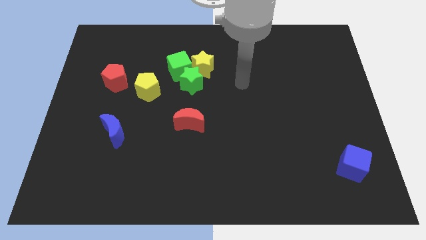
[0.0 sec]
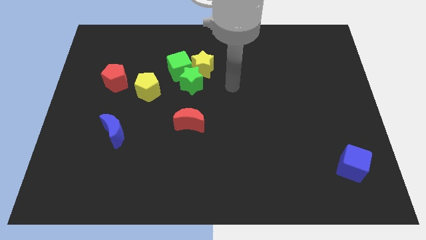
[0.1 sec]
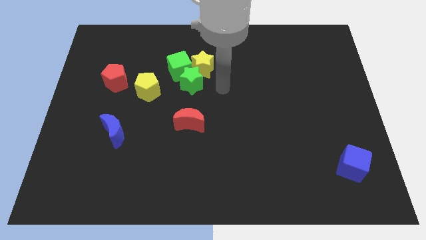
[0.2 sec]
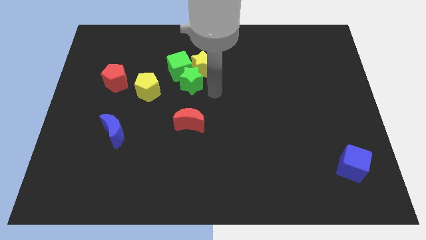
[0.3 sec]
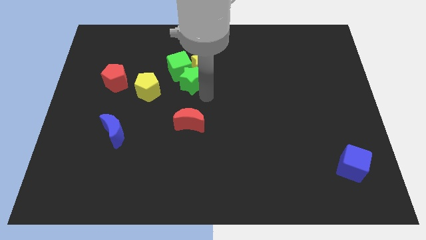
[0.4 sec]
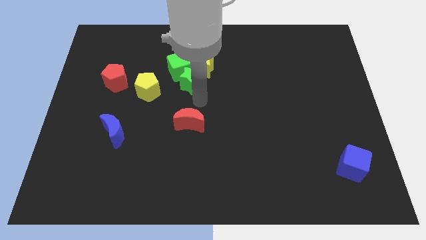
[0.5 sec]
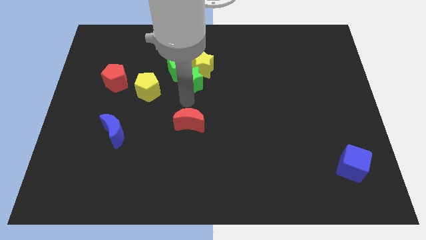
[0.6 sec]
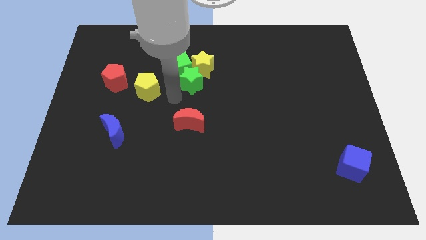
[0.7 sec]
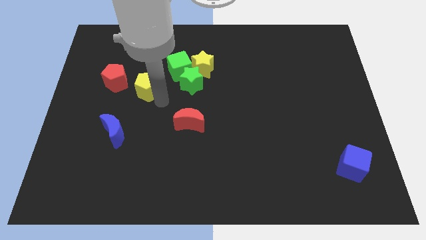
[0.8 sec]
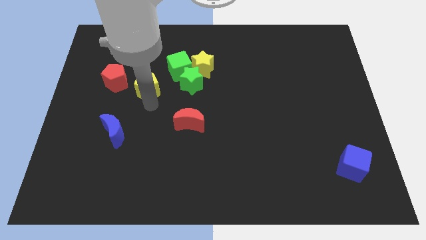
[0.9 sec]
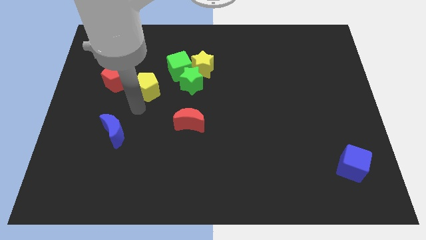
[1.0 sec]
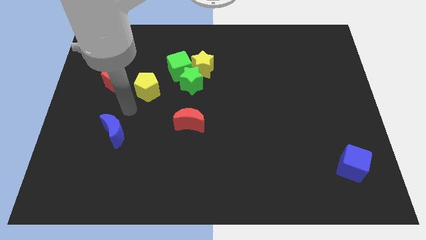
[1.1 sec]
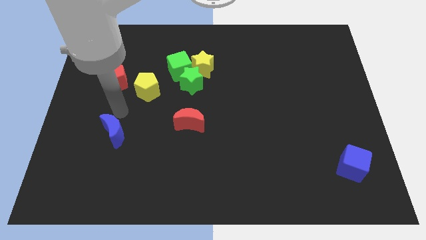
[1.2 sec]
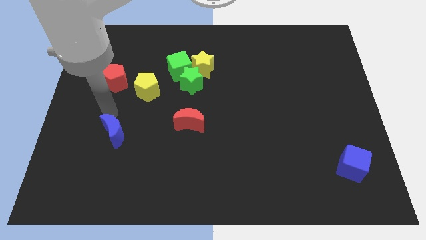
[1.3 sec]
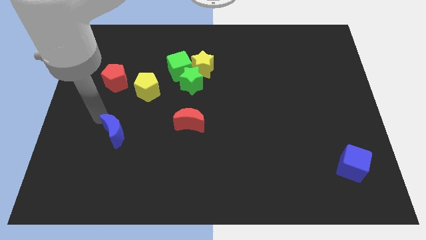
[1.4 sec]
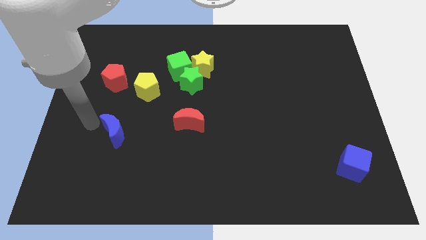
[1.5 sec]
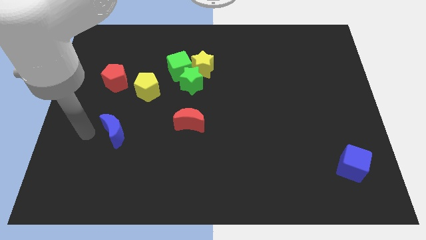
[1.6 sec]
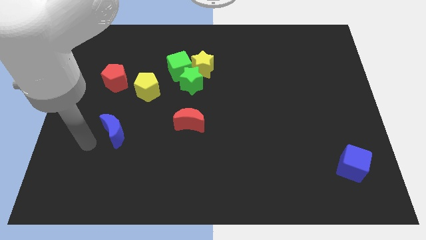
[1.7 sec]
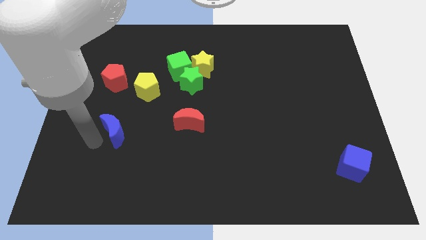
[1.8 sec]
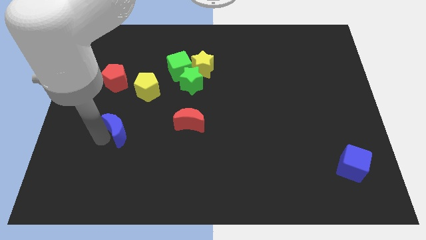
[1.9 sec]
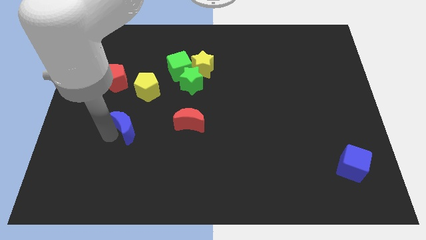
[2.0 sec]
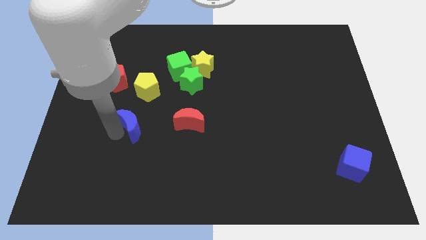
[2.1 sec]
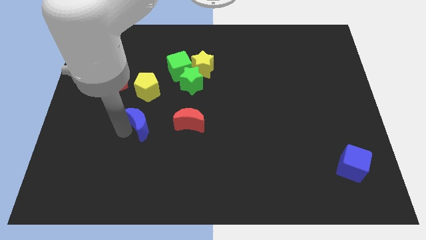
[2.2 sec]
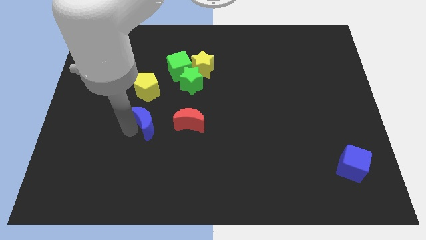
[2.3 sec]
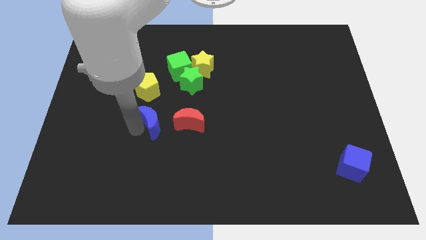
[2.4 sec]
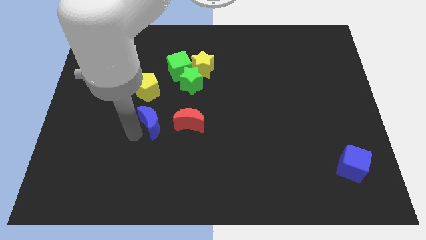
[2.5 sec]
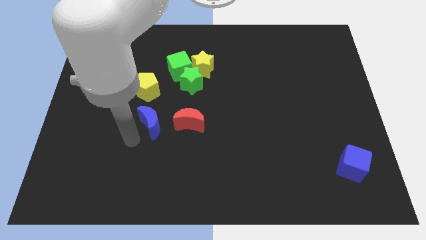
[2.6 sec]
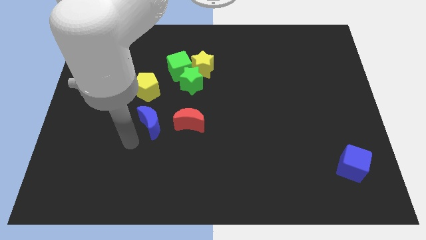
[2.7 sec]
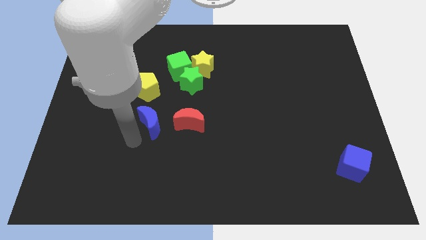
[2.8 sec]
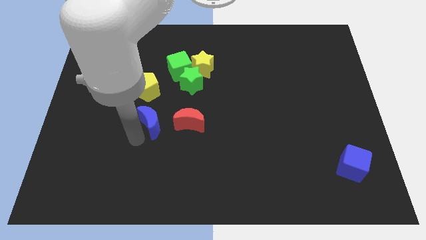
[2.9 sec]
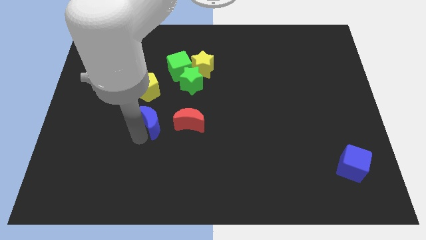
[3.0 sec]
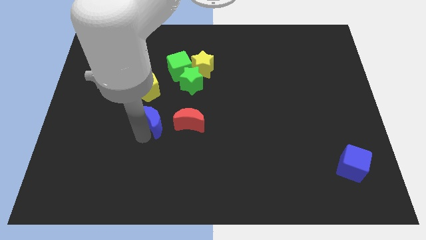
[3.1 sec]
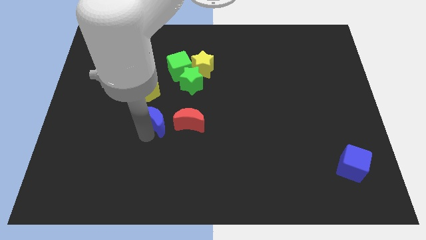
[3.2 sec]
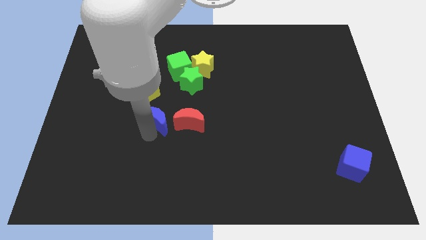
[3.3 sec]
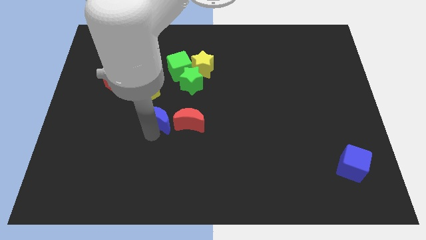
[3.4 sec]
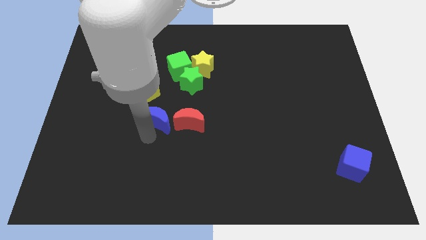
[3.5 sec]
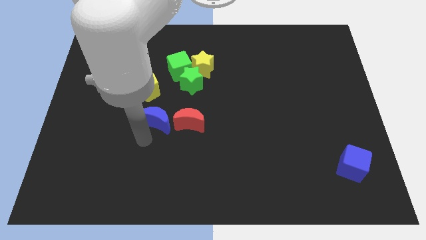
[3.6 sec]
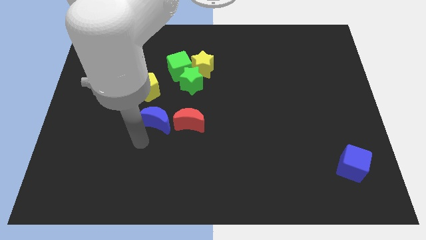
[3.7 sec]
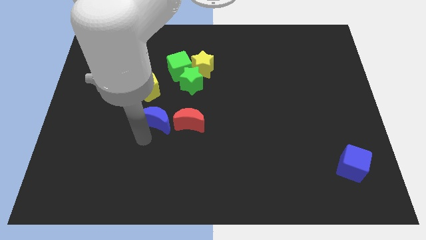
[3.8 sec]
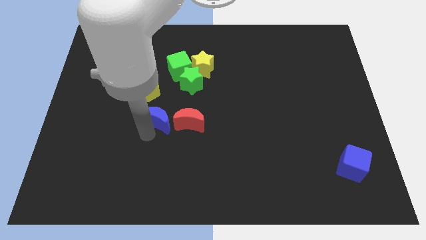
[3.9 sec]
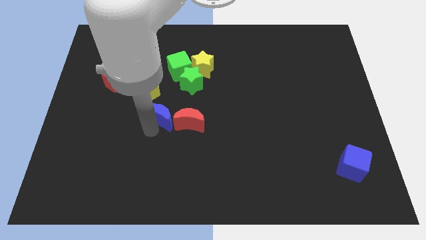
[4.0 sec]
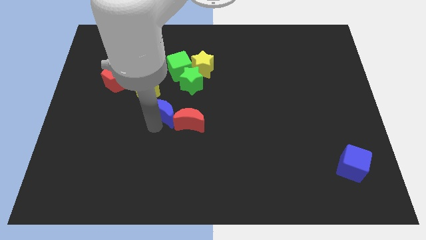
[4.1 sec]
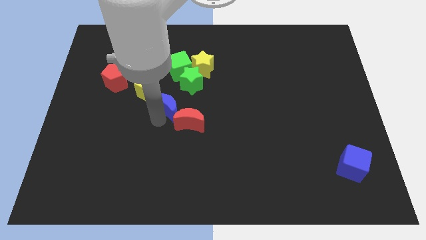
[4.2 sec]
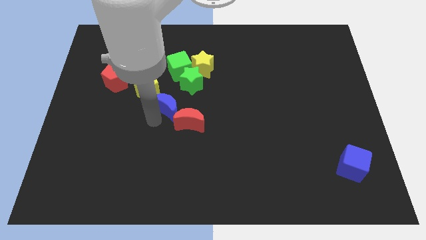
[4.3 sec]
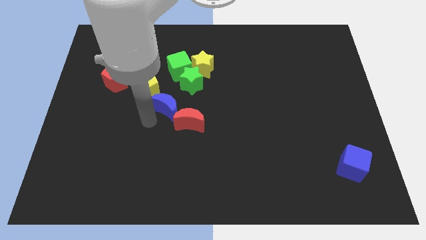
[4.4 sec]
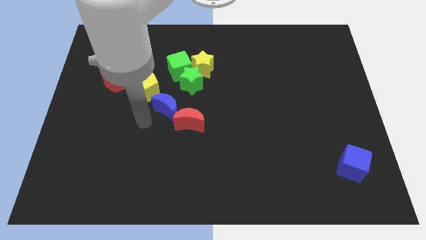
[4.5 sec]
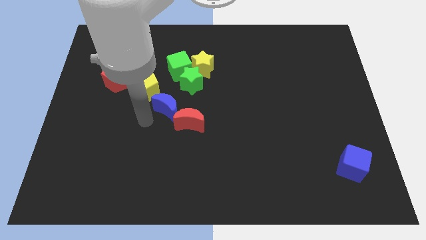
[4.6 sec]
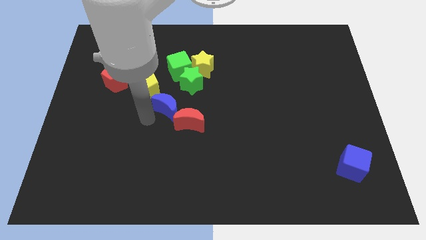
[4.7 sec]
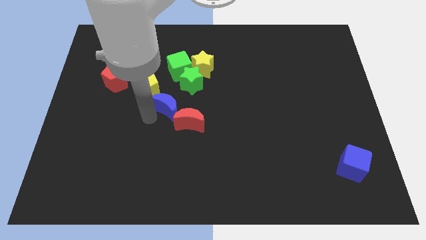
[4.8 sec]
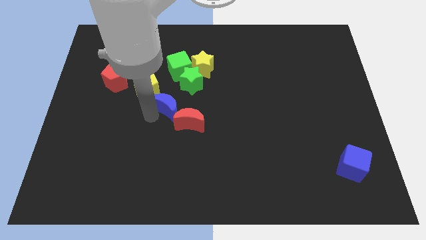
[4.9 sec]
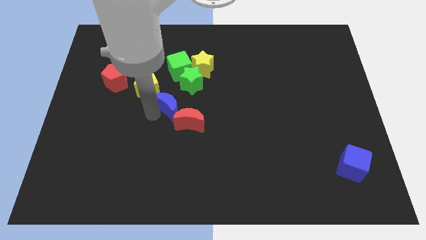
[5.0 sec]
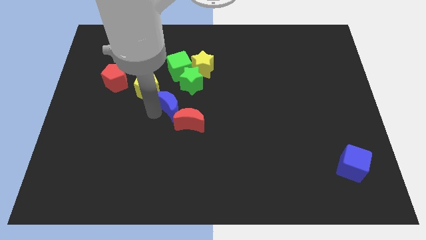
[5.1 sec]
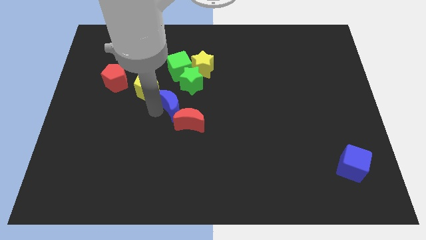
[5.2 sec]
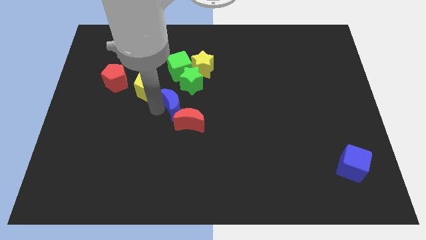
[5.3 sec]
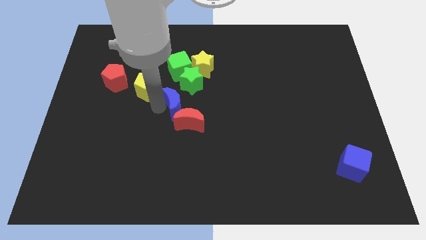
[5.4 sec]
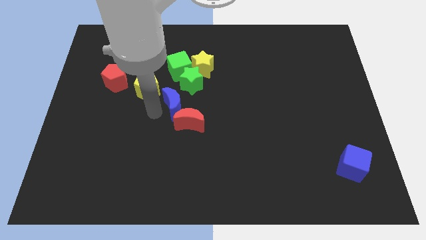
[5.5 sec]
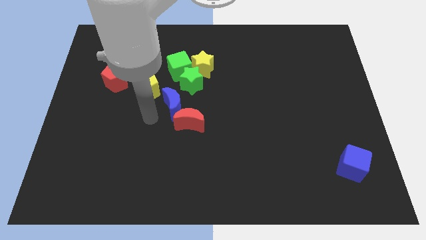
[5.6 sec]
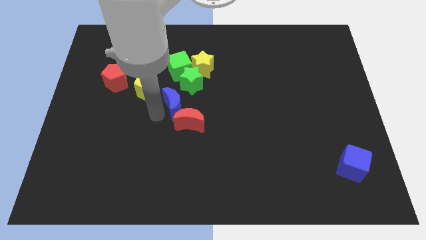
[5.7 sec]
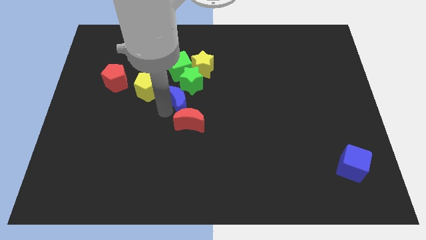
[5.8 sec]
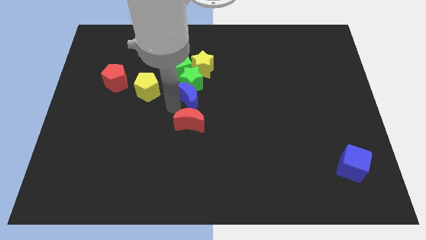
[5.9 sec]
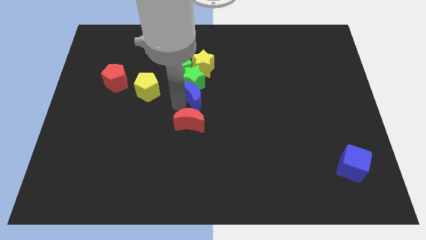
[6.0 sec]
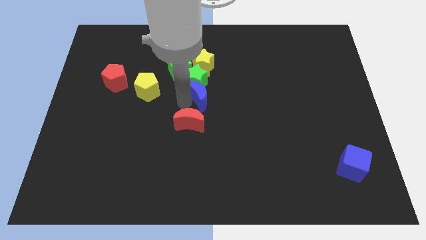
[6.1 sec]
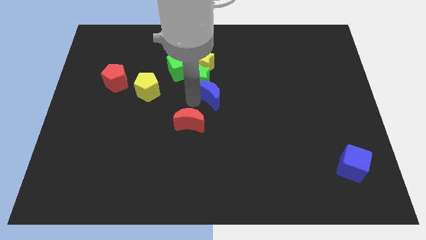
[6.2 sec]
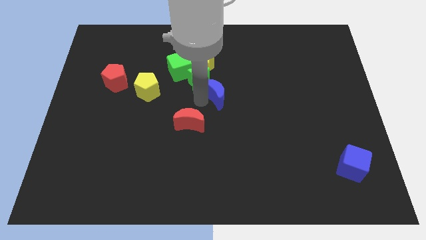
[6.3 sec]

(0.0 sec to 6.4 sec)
put the blue moon diagonally down and to the right of the yellow star
